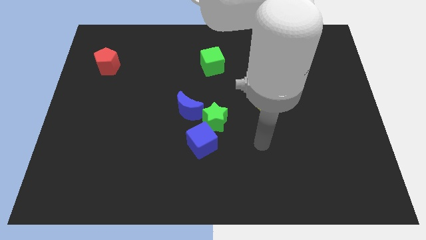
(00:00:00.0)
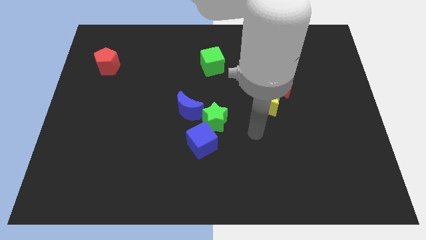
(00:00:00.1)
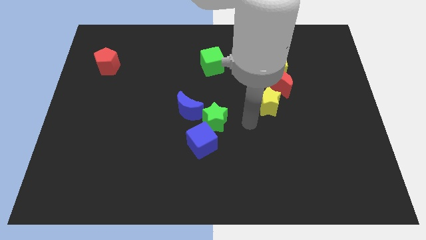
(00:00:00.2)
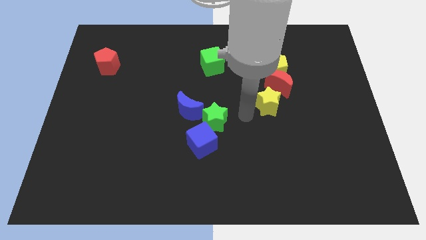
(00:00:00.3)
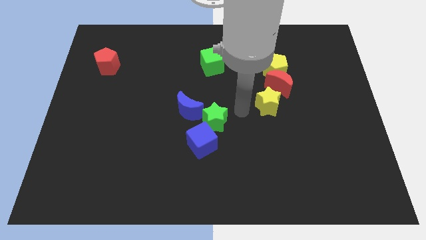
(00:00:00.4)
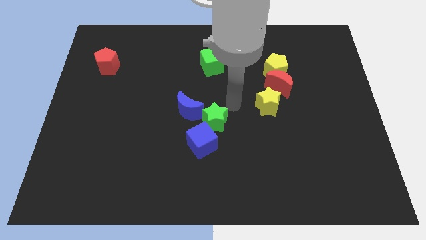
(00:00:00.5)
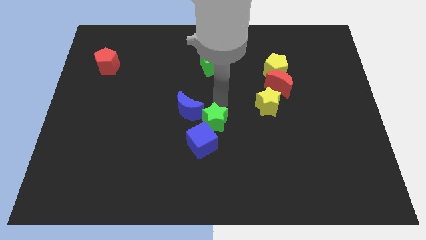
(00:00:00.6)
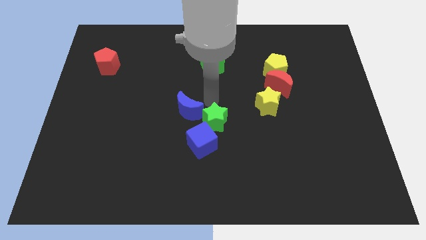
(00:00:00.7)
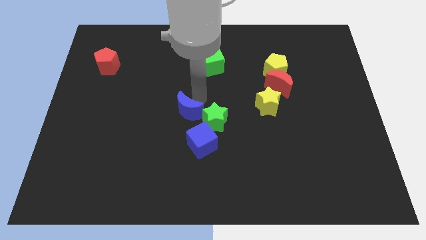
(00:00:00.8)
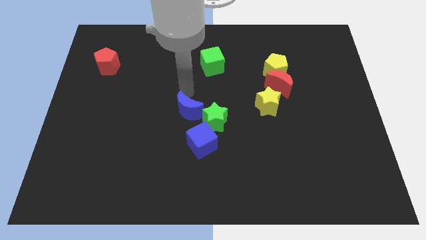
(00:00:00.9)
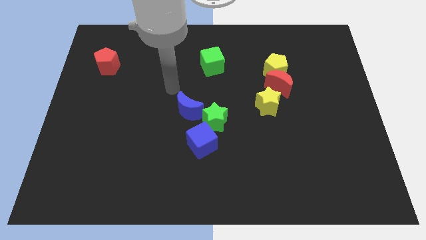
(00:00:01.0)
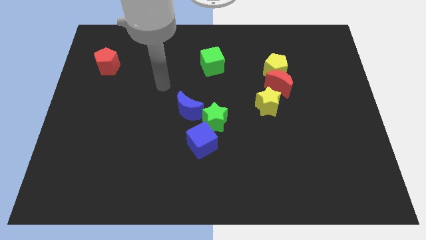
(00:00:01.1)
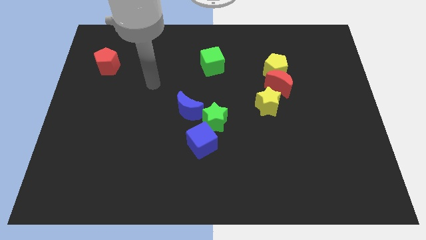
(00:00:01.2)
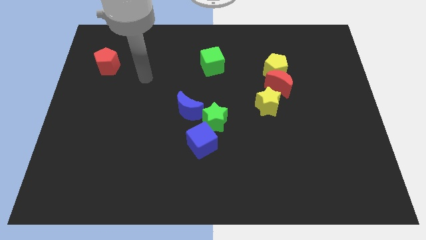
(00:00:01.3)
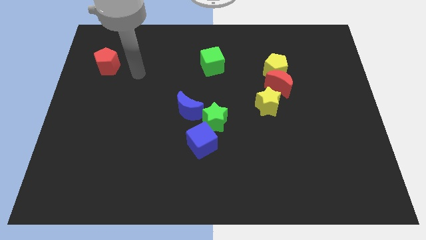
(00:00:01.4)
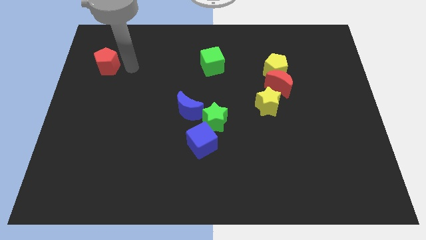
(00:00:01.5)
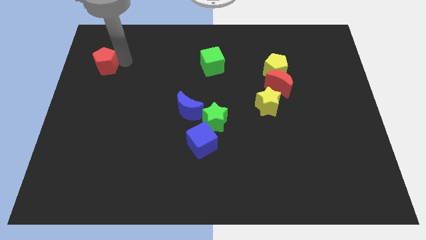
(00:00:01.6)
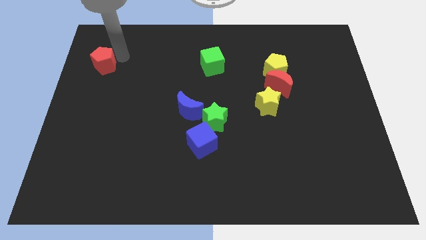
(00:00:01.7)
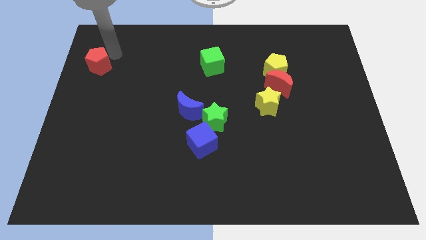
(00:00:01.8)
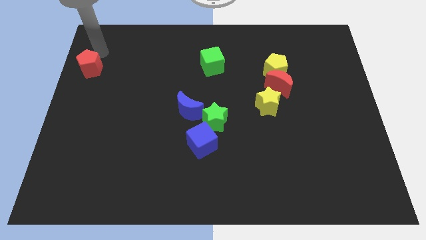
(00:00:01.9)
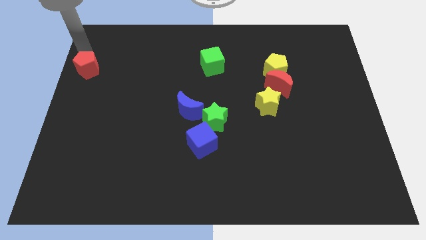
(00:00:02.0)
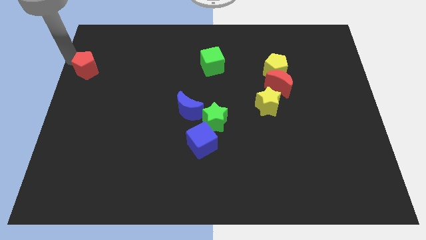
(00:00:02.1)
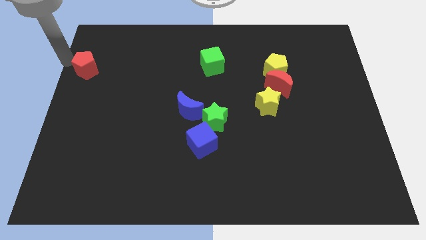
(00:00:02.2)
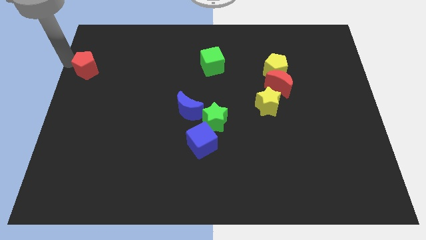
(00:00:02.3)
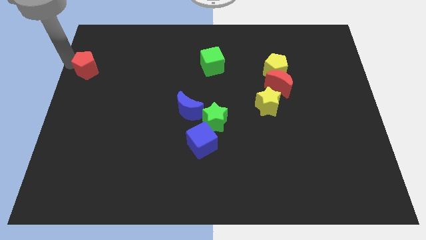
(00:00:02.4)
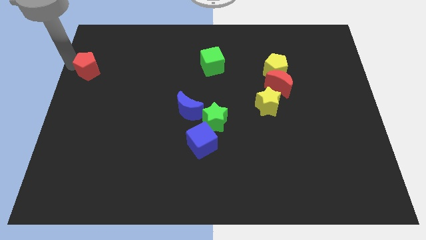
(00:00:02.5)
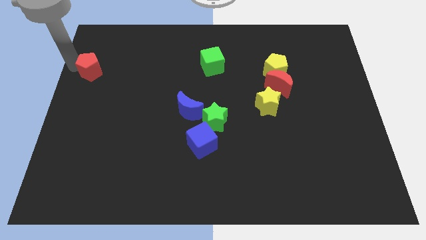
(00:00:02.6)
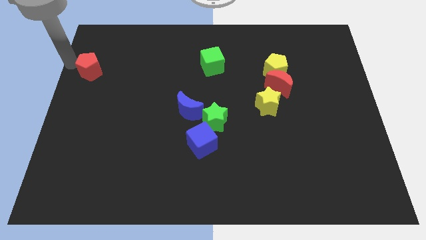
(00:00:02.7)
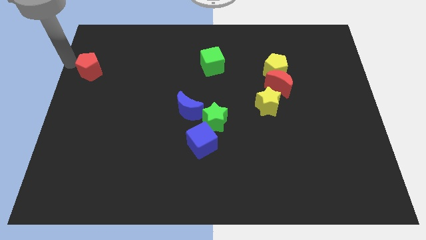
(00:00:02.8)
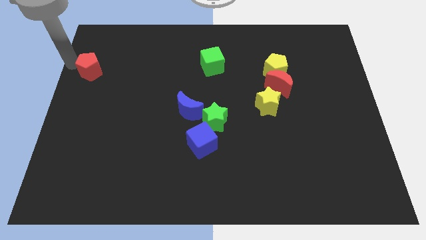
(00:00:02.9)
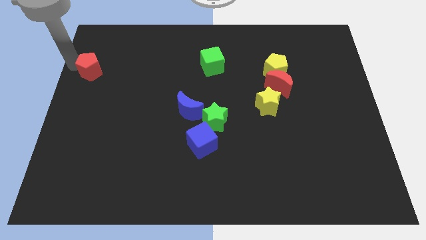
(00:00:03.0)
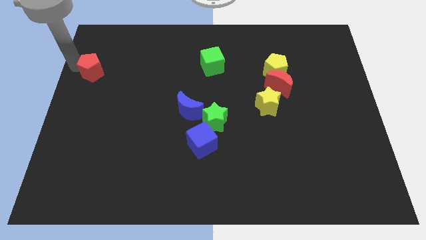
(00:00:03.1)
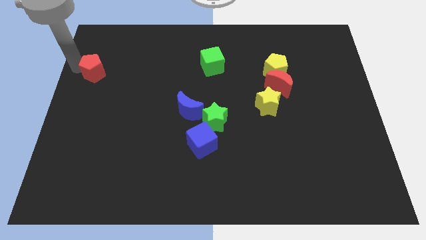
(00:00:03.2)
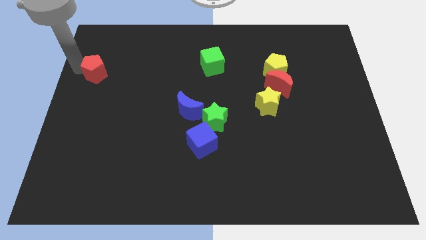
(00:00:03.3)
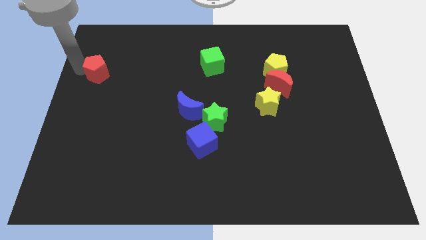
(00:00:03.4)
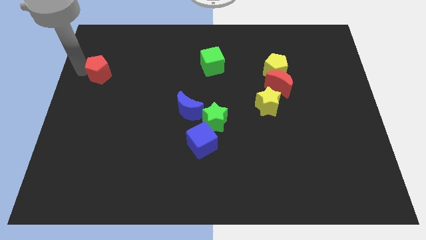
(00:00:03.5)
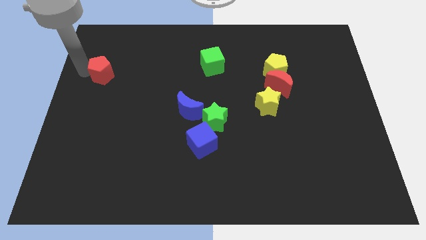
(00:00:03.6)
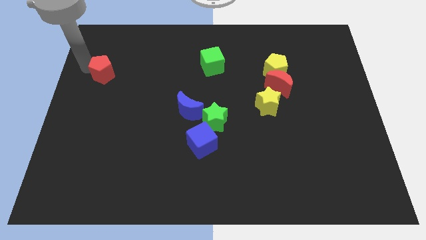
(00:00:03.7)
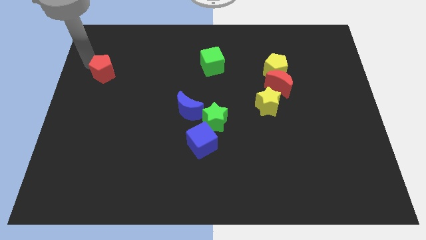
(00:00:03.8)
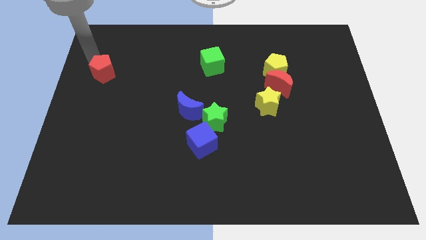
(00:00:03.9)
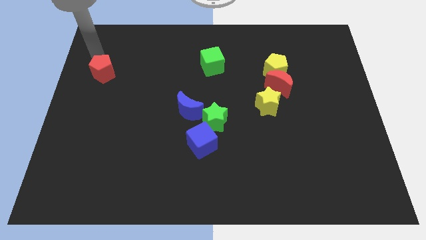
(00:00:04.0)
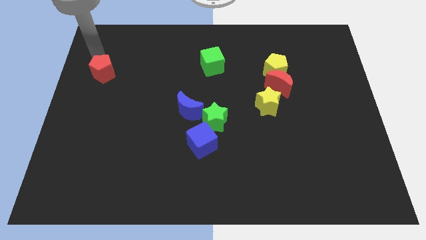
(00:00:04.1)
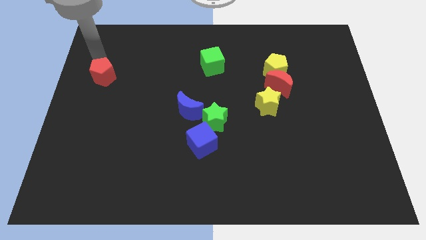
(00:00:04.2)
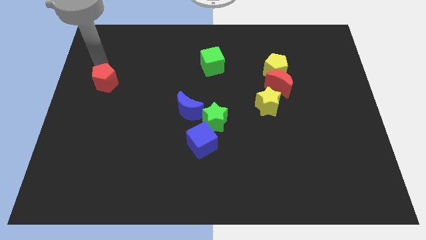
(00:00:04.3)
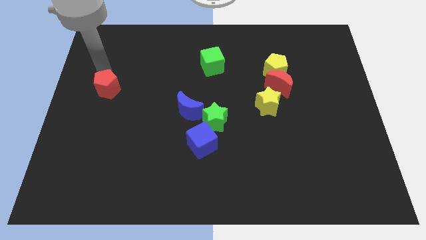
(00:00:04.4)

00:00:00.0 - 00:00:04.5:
slightly slide the red pentagon downwards

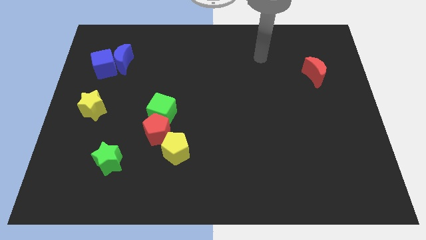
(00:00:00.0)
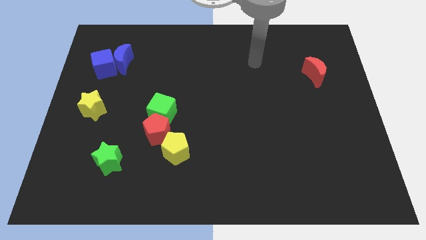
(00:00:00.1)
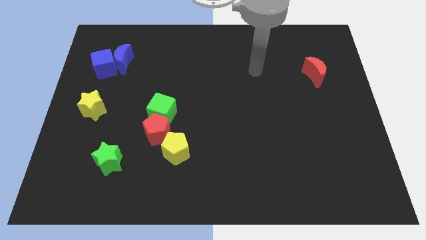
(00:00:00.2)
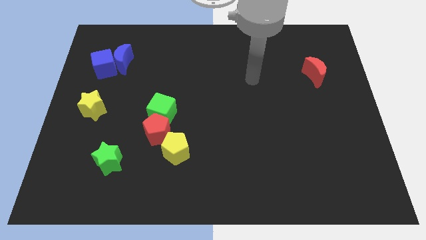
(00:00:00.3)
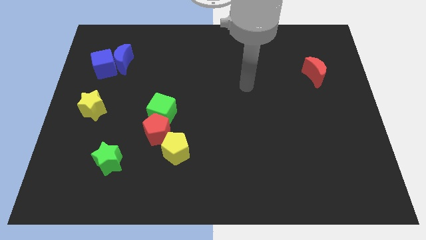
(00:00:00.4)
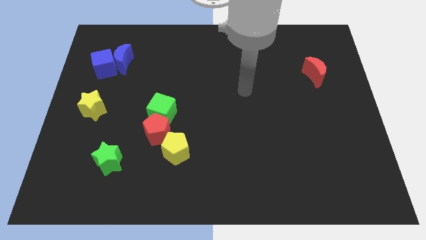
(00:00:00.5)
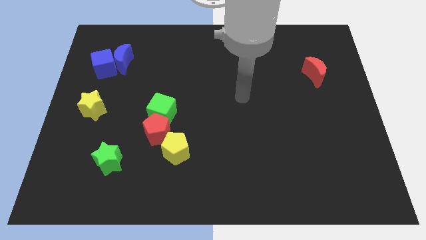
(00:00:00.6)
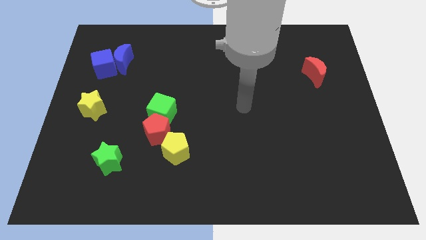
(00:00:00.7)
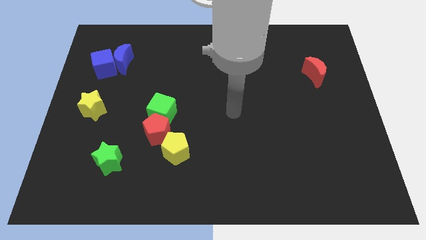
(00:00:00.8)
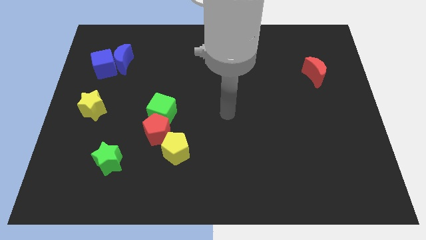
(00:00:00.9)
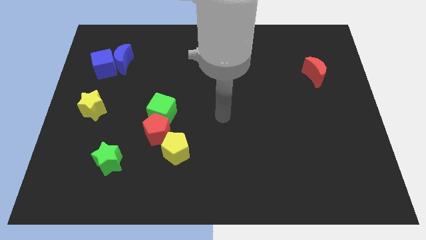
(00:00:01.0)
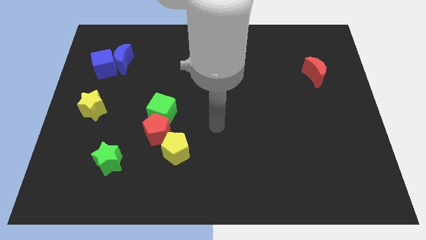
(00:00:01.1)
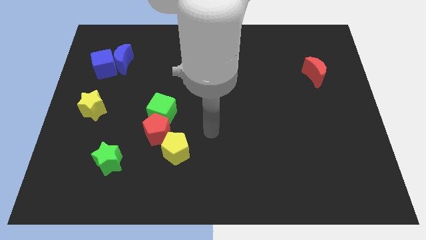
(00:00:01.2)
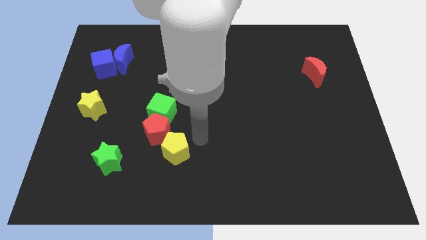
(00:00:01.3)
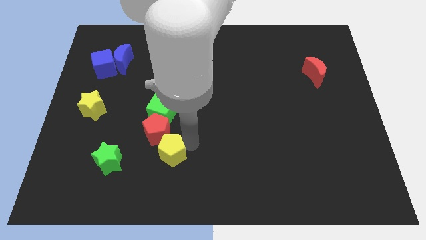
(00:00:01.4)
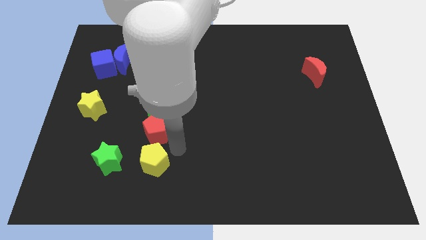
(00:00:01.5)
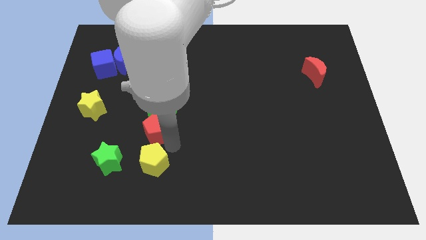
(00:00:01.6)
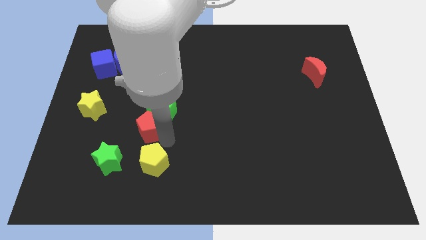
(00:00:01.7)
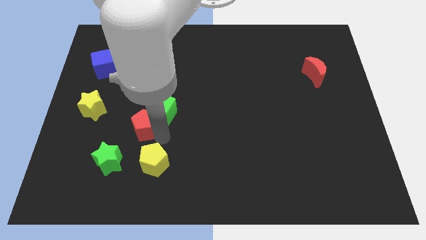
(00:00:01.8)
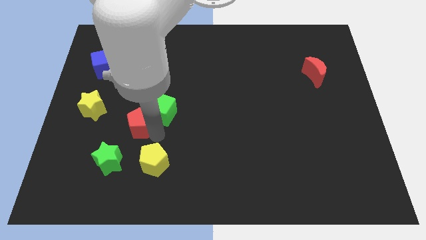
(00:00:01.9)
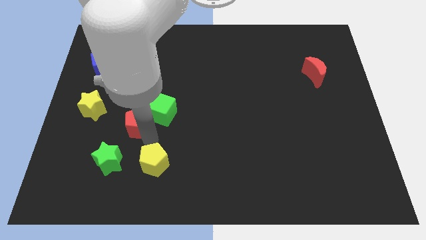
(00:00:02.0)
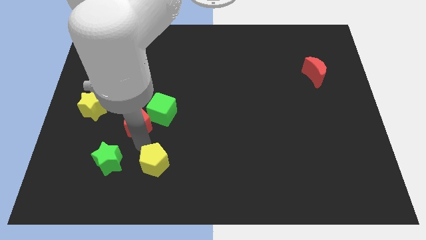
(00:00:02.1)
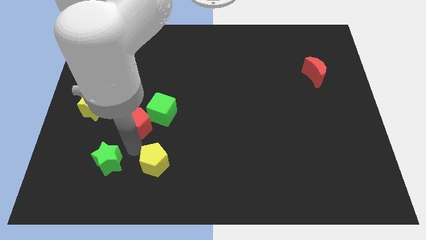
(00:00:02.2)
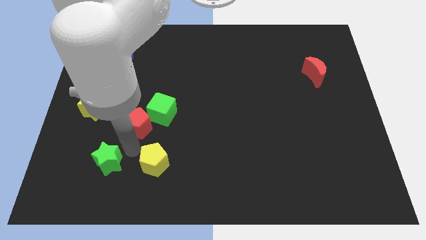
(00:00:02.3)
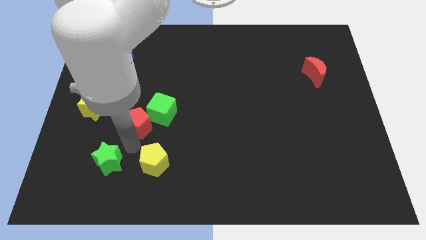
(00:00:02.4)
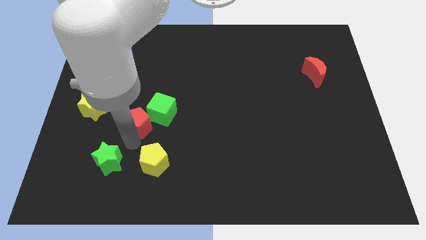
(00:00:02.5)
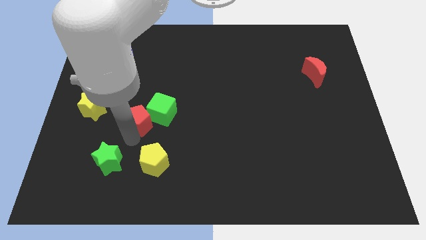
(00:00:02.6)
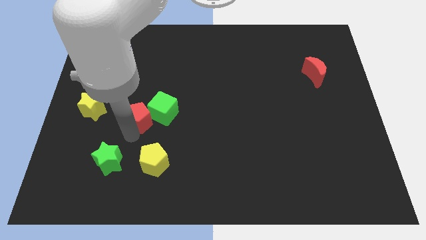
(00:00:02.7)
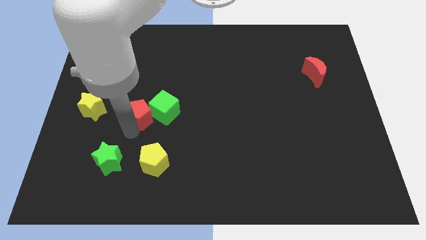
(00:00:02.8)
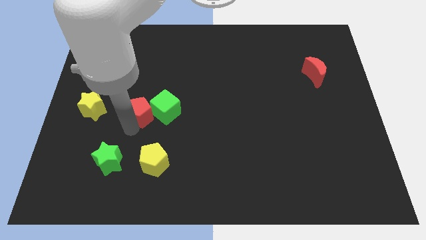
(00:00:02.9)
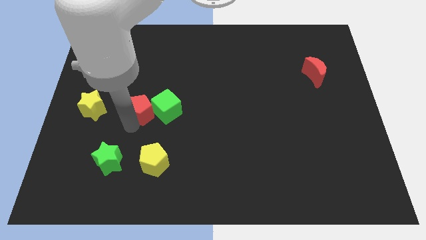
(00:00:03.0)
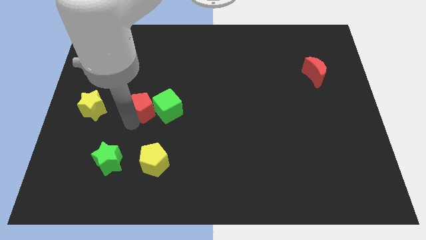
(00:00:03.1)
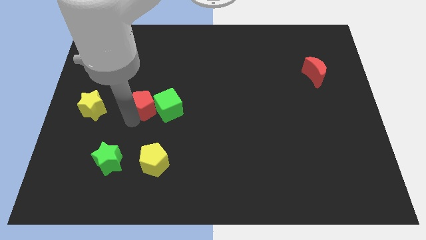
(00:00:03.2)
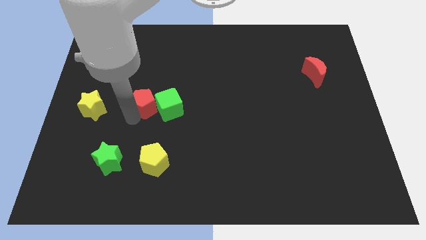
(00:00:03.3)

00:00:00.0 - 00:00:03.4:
push the red pentagon upwards somewhat

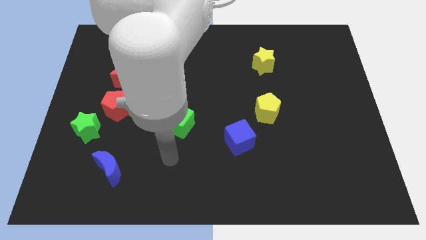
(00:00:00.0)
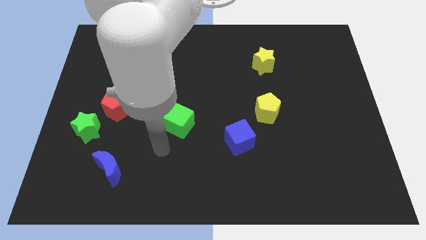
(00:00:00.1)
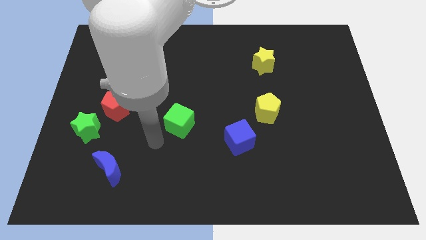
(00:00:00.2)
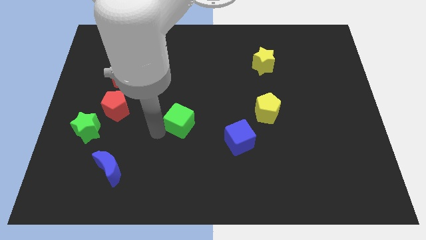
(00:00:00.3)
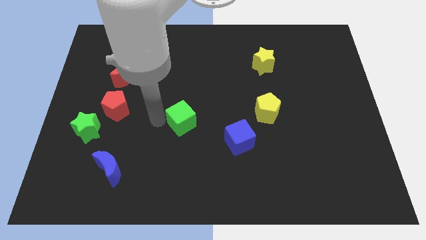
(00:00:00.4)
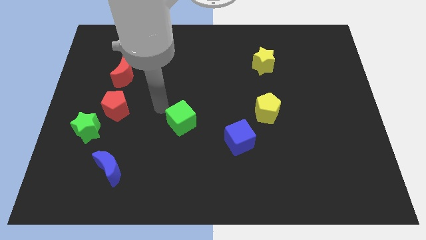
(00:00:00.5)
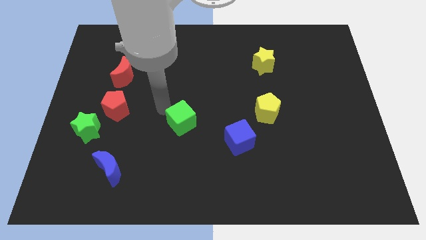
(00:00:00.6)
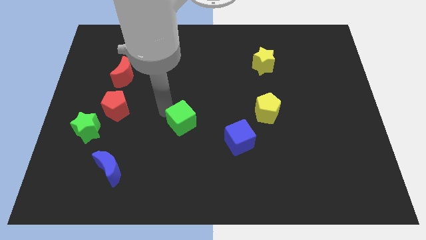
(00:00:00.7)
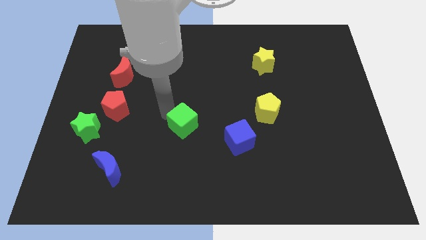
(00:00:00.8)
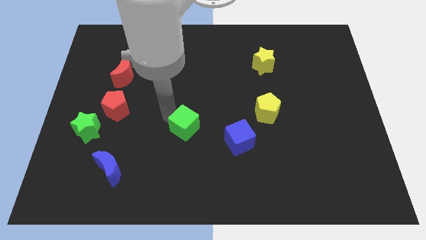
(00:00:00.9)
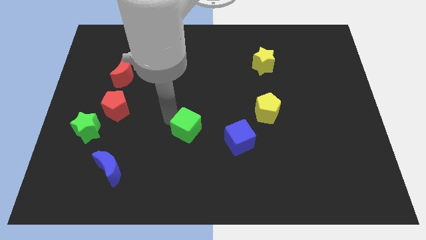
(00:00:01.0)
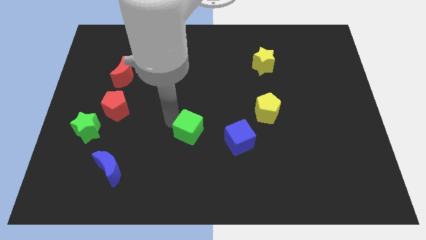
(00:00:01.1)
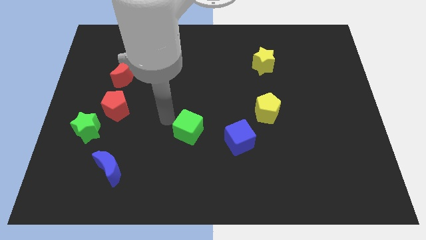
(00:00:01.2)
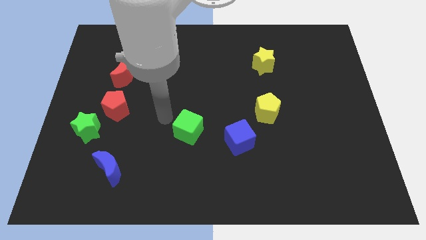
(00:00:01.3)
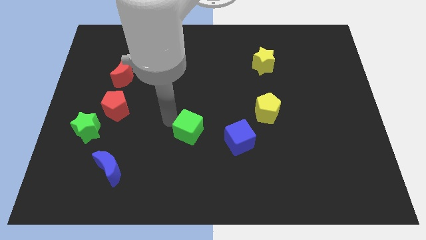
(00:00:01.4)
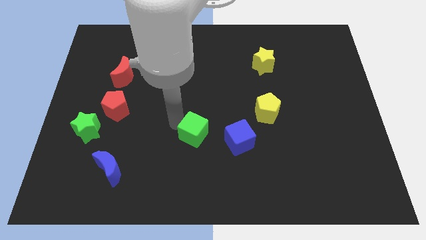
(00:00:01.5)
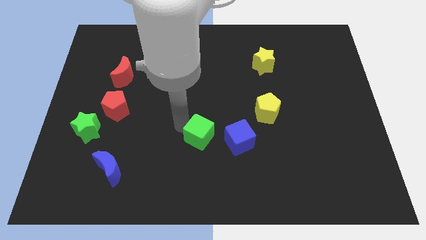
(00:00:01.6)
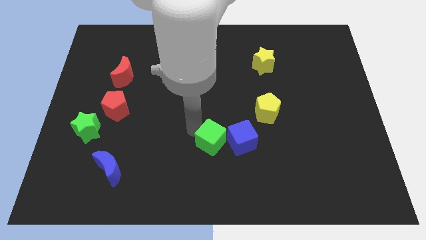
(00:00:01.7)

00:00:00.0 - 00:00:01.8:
slightly push the green cube downwards and then to the right
